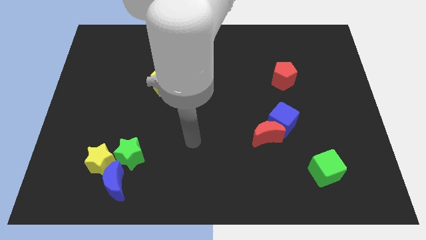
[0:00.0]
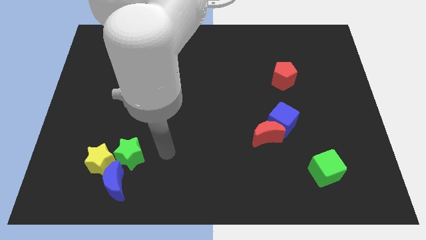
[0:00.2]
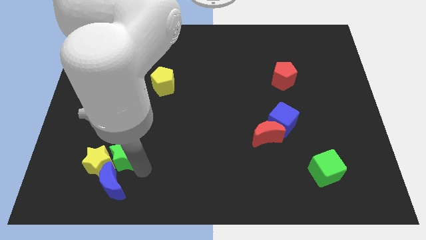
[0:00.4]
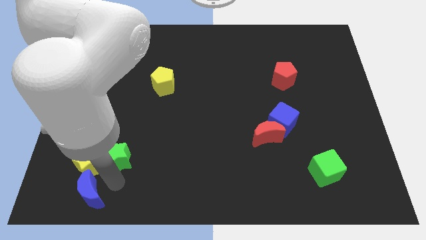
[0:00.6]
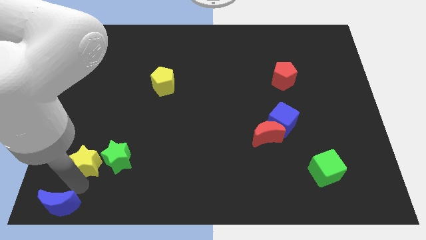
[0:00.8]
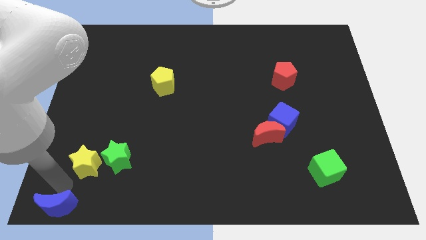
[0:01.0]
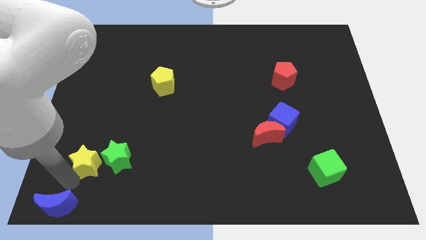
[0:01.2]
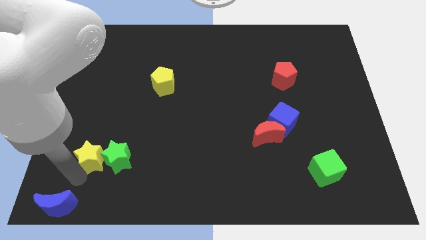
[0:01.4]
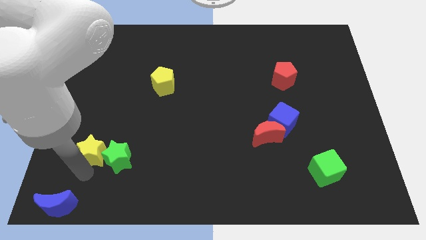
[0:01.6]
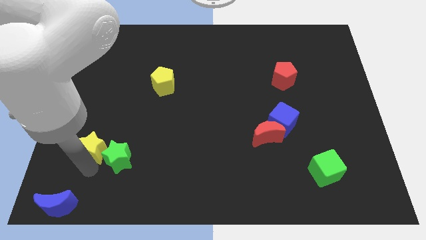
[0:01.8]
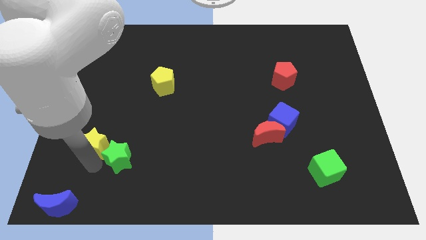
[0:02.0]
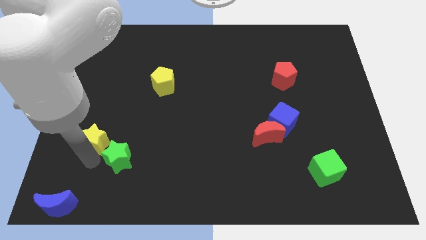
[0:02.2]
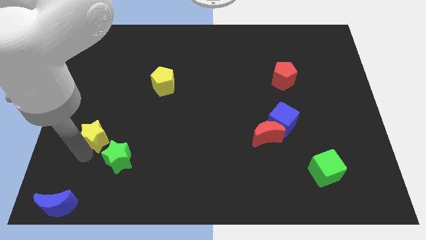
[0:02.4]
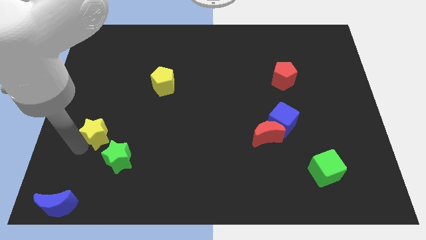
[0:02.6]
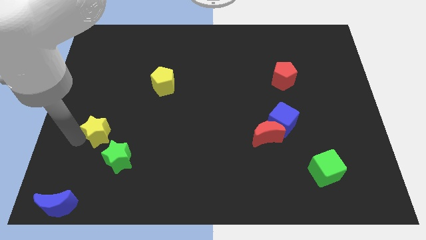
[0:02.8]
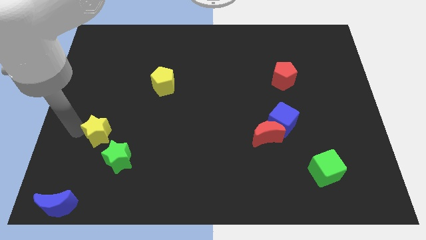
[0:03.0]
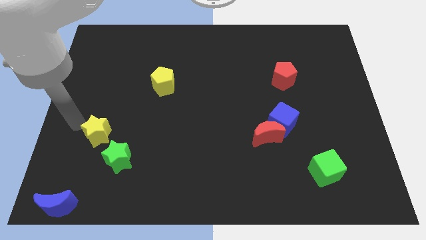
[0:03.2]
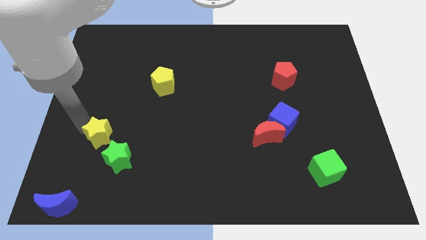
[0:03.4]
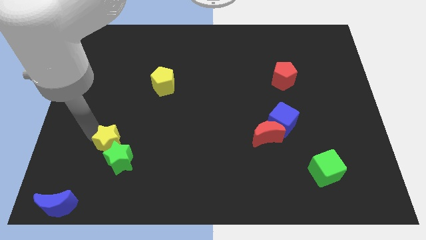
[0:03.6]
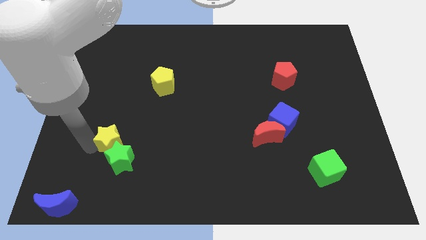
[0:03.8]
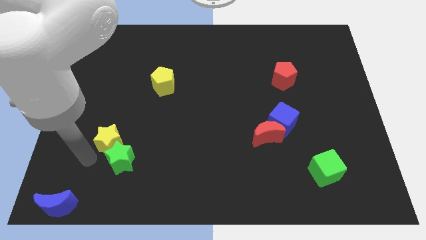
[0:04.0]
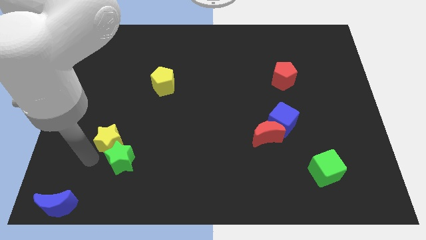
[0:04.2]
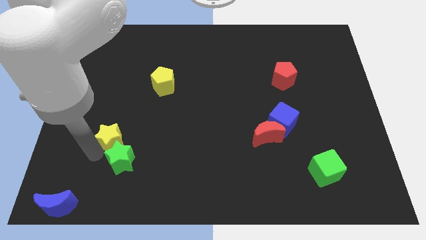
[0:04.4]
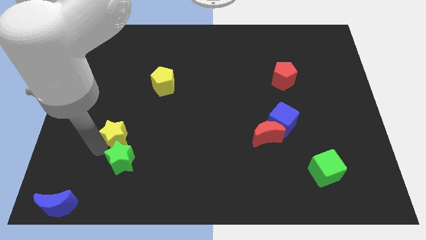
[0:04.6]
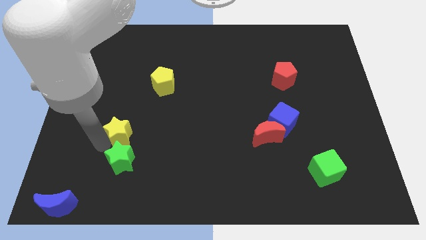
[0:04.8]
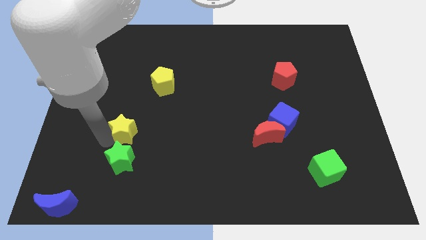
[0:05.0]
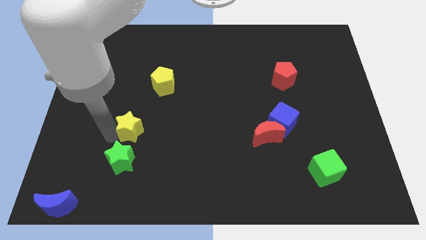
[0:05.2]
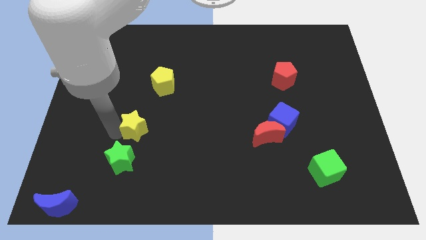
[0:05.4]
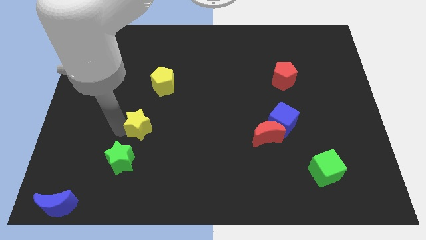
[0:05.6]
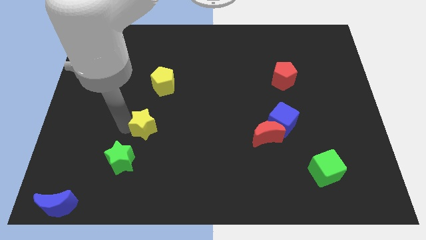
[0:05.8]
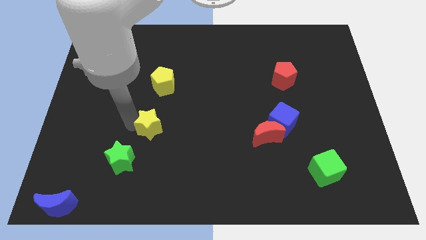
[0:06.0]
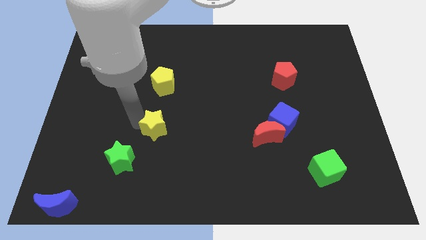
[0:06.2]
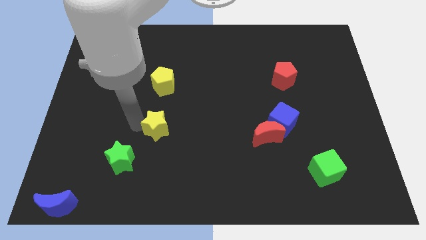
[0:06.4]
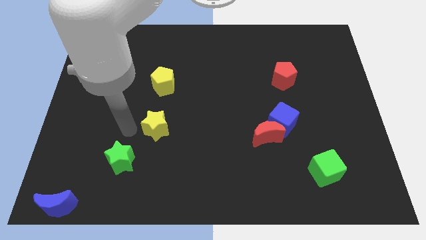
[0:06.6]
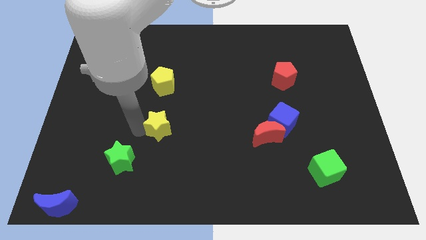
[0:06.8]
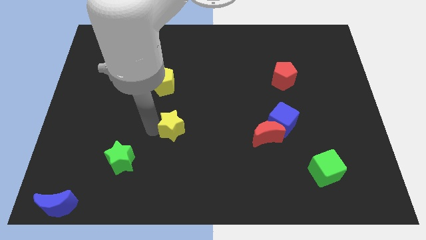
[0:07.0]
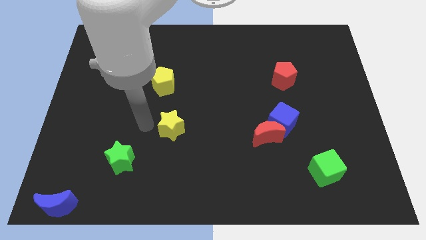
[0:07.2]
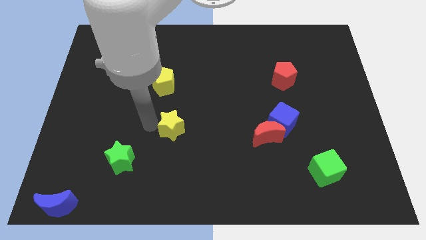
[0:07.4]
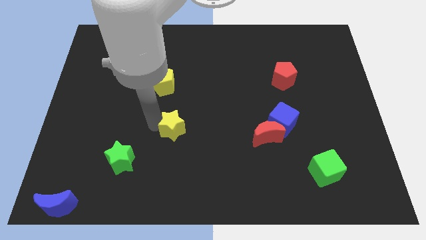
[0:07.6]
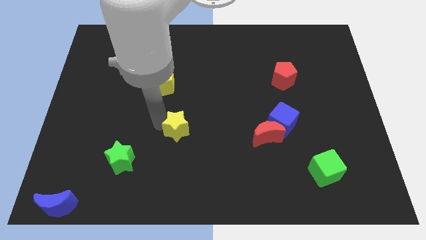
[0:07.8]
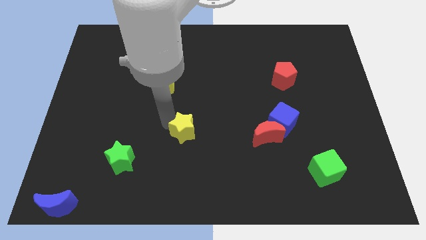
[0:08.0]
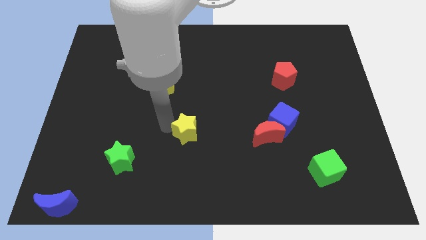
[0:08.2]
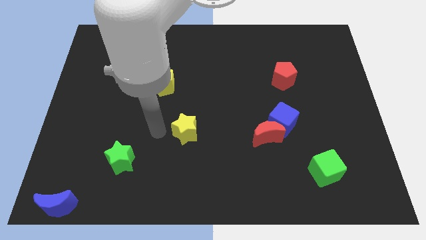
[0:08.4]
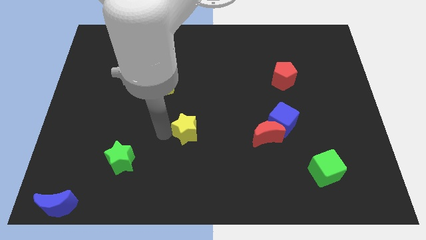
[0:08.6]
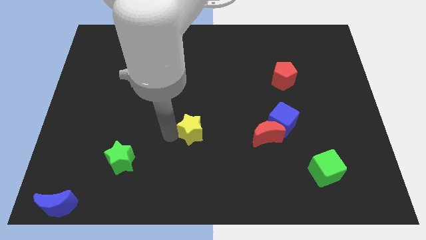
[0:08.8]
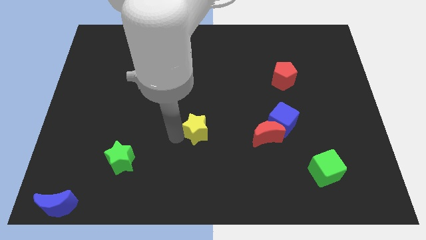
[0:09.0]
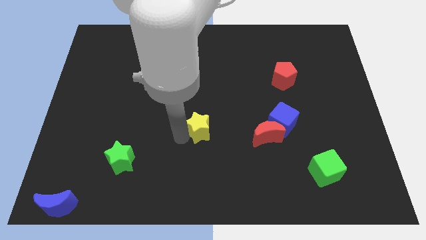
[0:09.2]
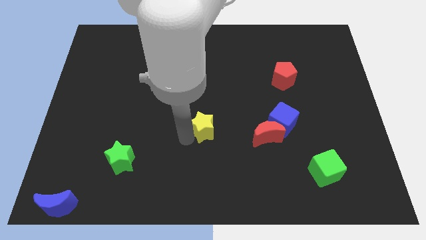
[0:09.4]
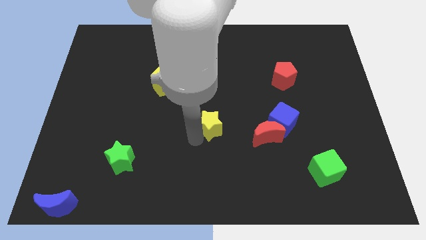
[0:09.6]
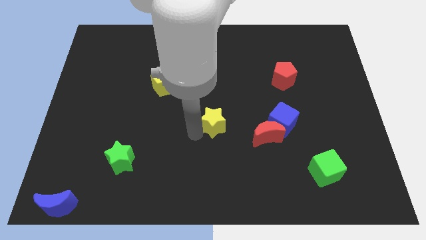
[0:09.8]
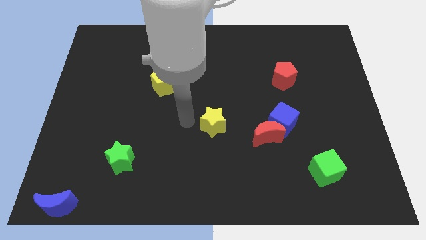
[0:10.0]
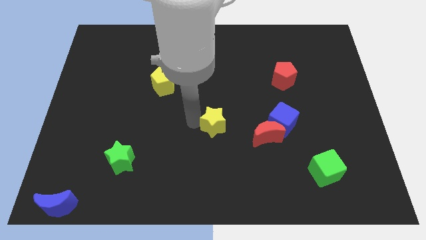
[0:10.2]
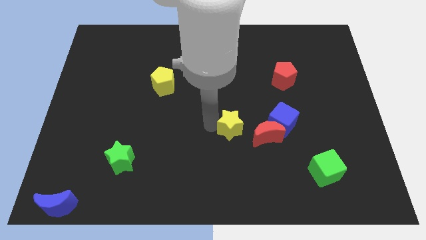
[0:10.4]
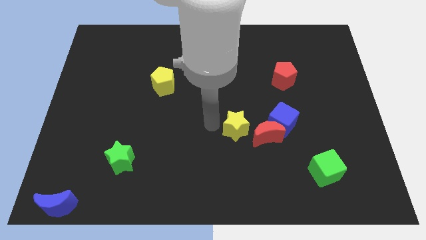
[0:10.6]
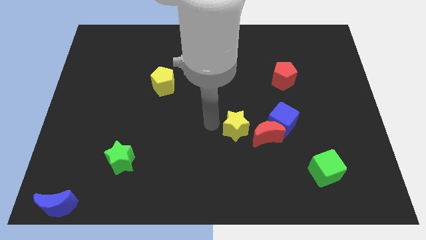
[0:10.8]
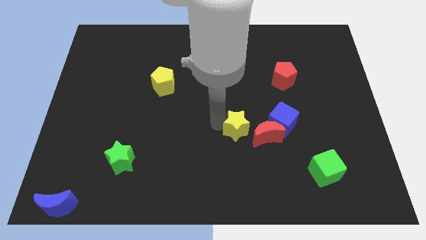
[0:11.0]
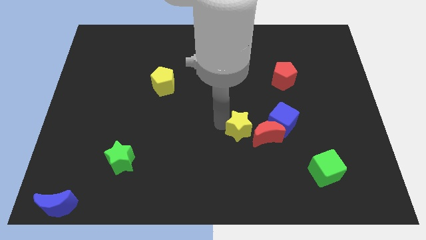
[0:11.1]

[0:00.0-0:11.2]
move the yellow star towards the red moon

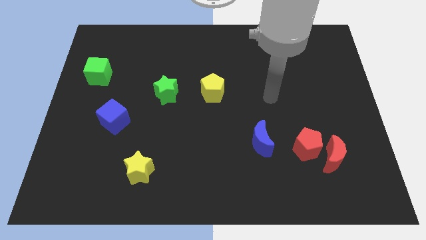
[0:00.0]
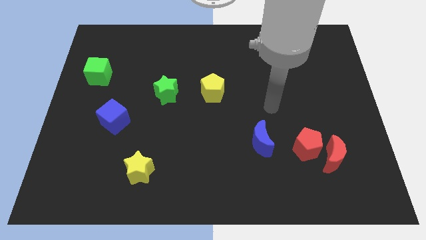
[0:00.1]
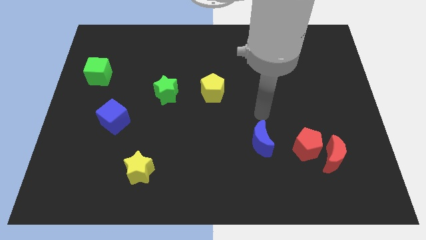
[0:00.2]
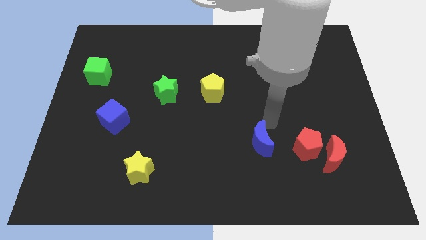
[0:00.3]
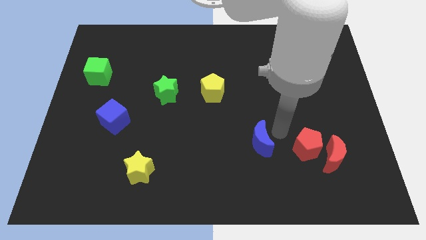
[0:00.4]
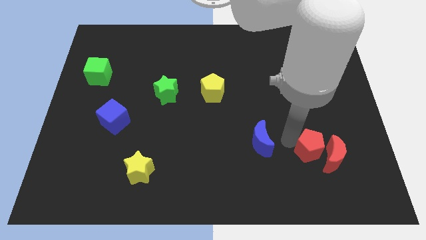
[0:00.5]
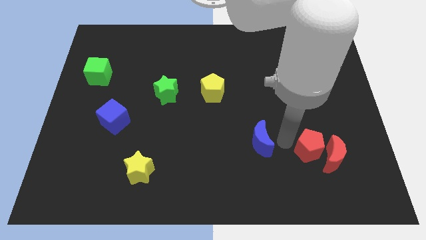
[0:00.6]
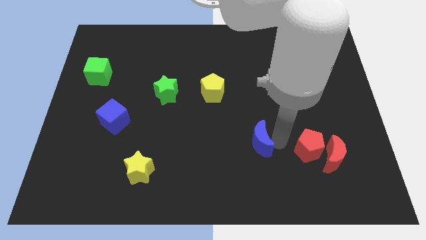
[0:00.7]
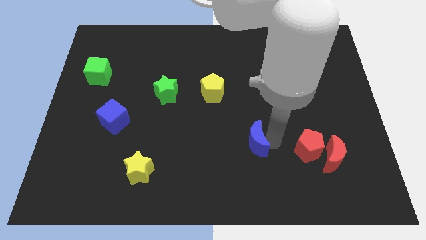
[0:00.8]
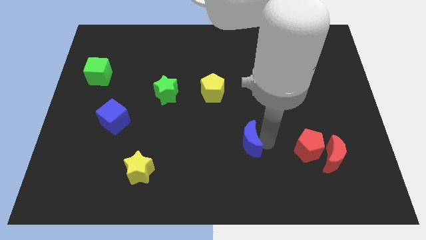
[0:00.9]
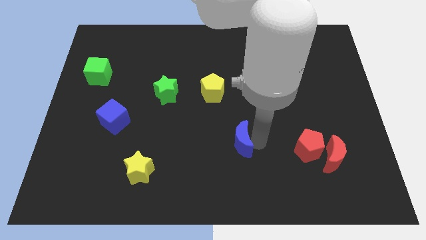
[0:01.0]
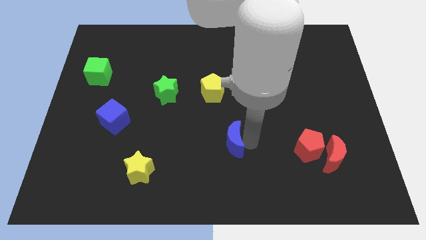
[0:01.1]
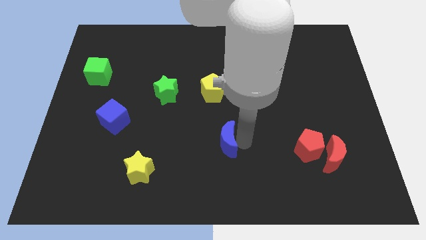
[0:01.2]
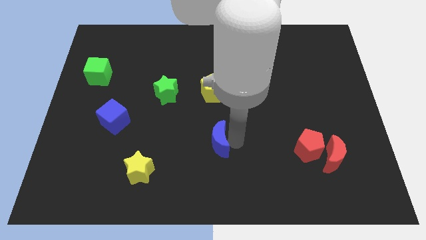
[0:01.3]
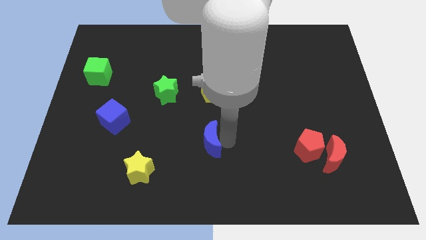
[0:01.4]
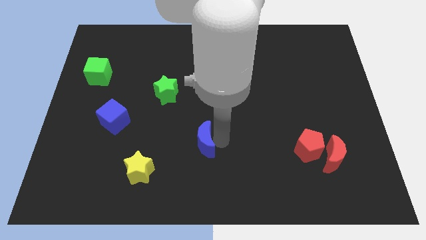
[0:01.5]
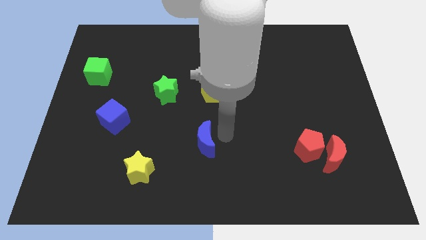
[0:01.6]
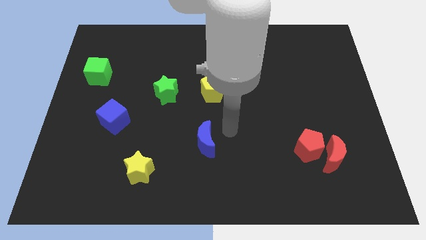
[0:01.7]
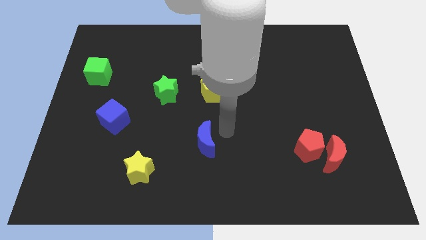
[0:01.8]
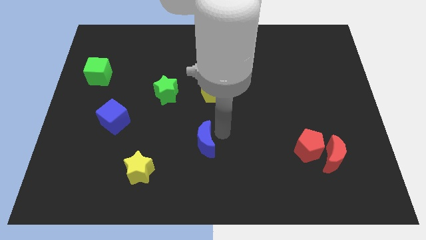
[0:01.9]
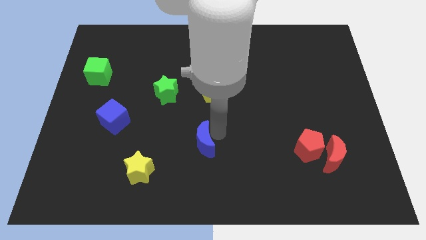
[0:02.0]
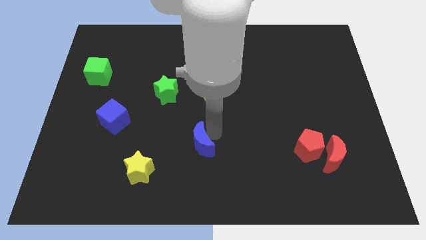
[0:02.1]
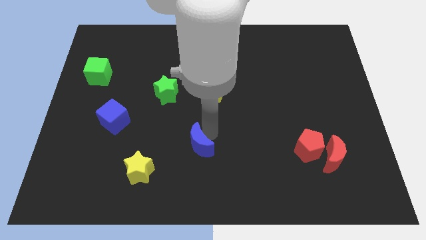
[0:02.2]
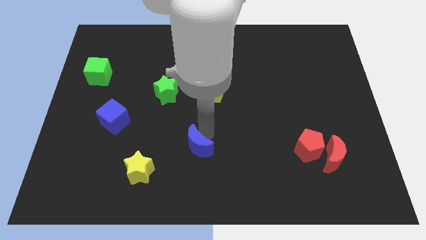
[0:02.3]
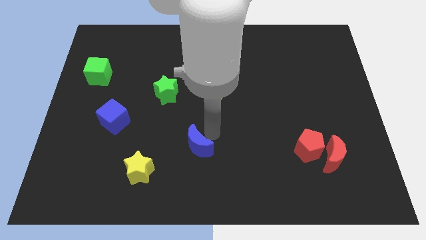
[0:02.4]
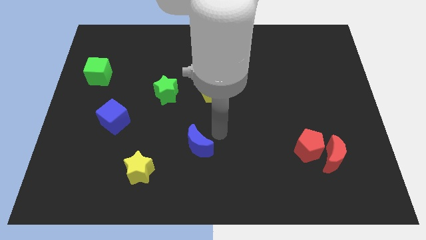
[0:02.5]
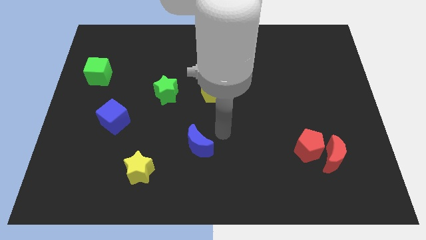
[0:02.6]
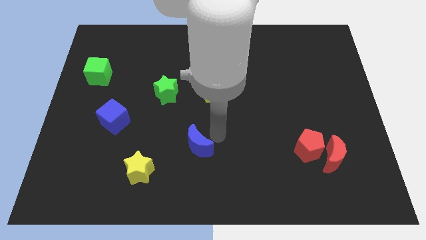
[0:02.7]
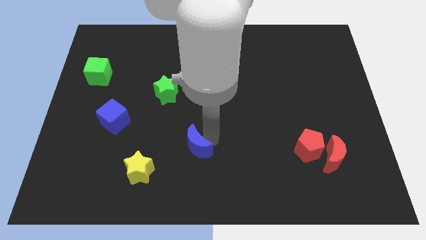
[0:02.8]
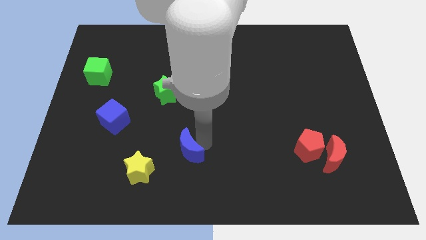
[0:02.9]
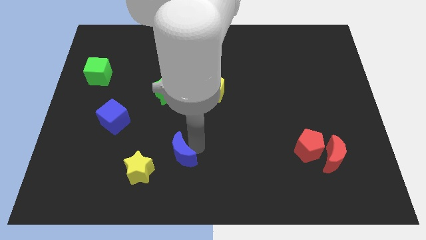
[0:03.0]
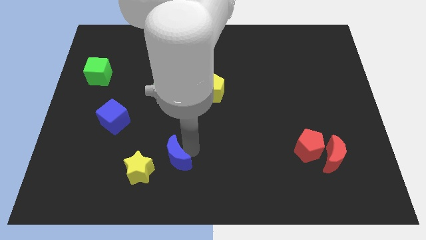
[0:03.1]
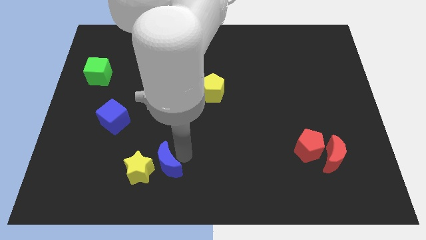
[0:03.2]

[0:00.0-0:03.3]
put the blue moon to the yellow star
